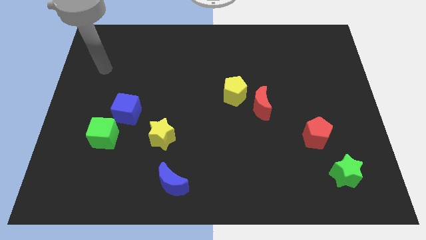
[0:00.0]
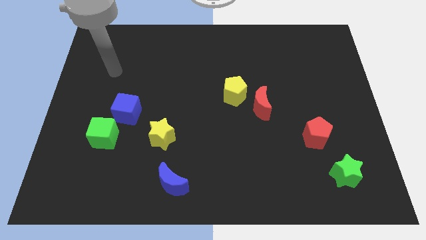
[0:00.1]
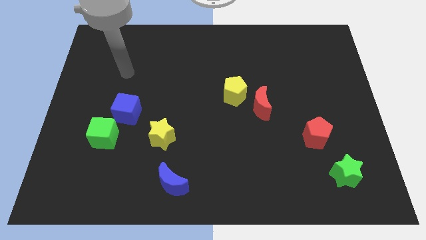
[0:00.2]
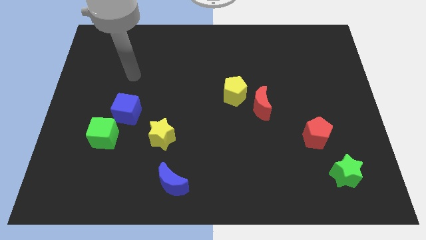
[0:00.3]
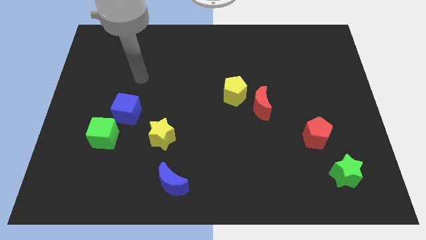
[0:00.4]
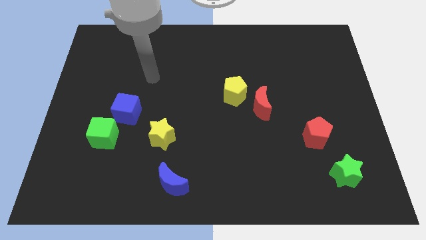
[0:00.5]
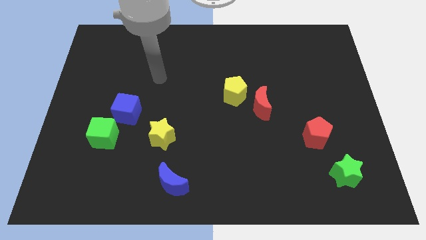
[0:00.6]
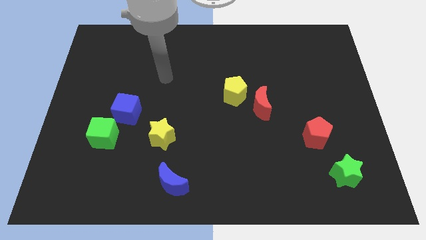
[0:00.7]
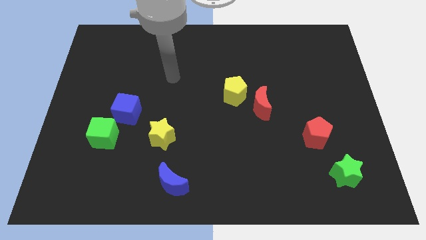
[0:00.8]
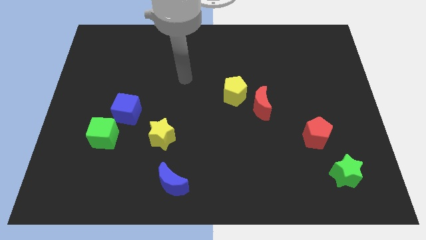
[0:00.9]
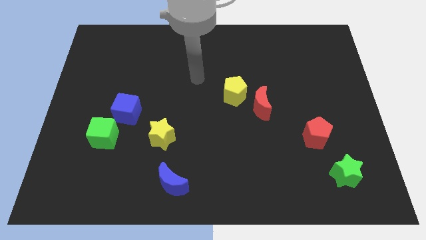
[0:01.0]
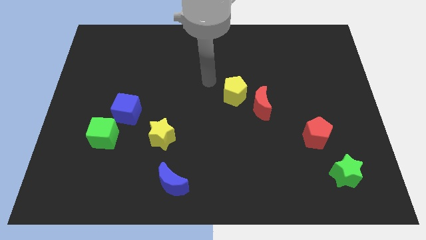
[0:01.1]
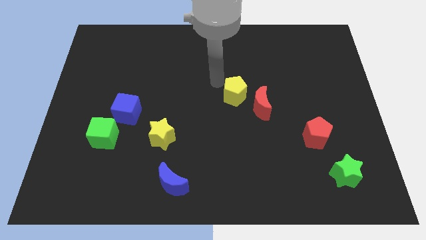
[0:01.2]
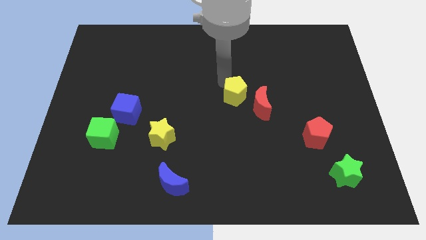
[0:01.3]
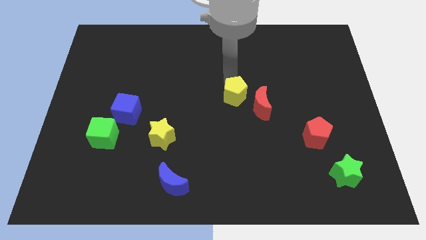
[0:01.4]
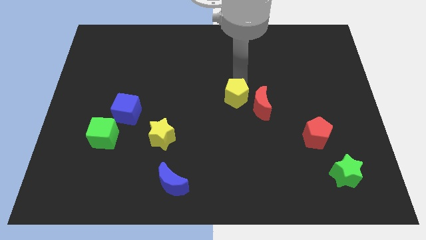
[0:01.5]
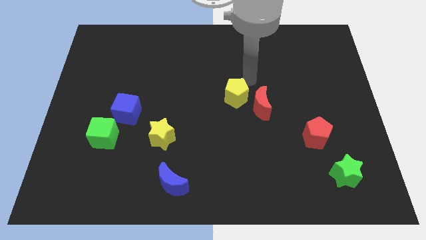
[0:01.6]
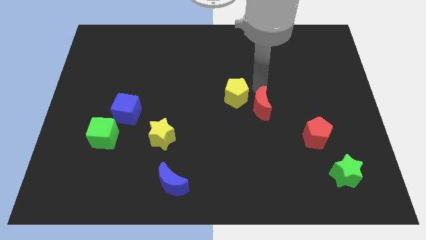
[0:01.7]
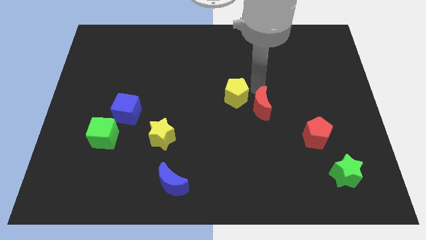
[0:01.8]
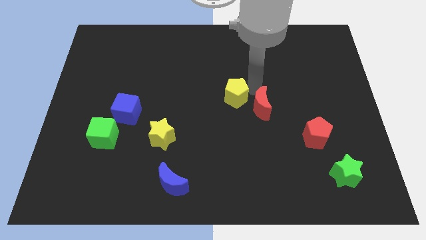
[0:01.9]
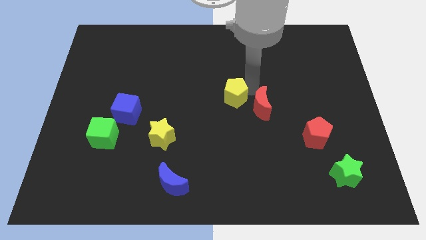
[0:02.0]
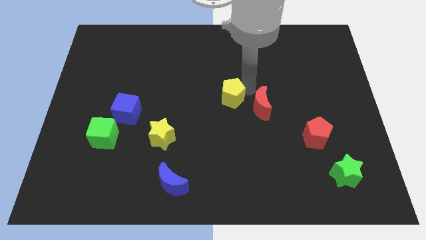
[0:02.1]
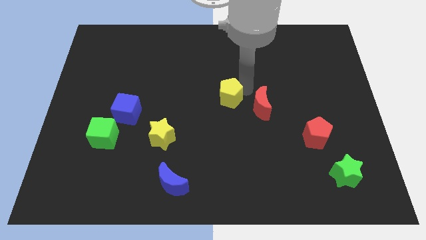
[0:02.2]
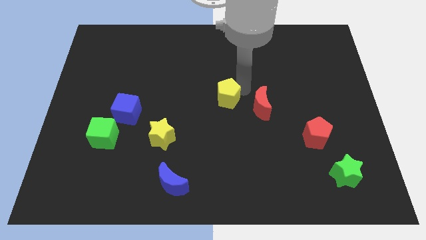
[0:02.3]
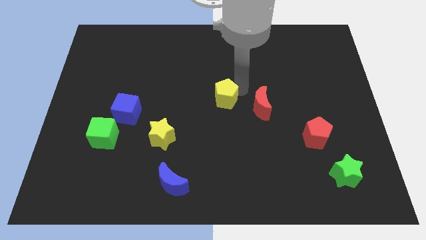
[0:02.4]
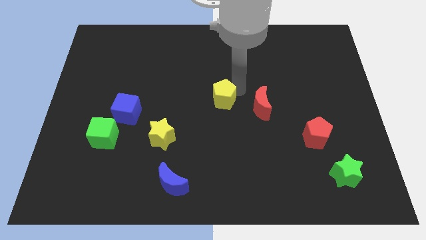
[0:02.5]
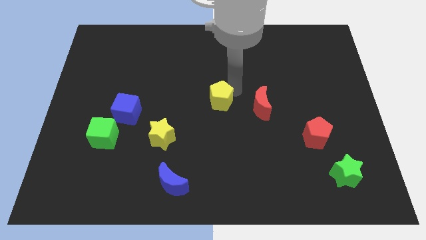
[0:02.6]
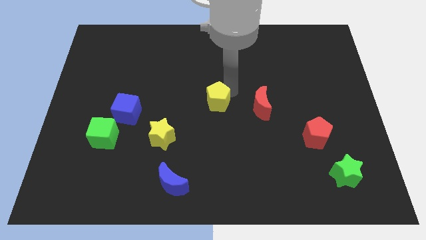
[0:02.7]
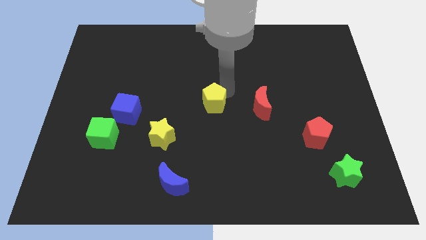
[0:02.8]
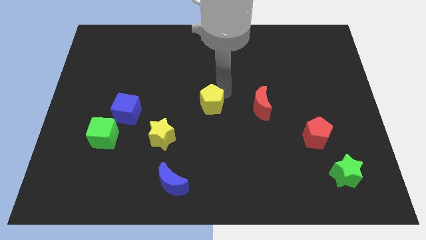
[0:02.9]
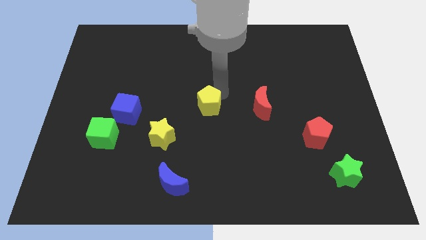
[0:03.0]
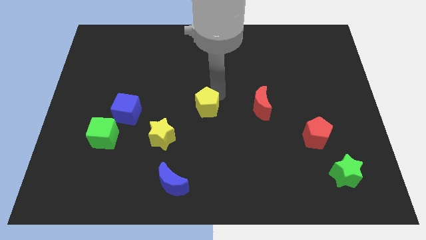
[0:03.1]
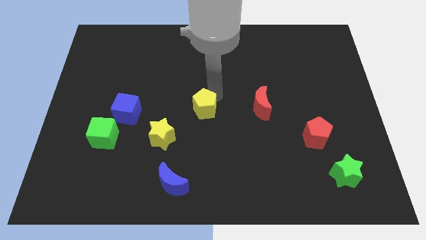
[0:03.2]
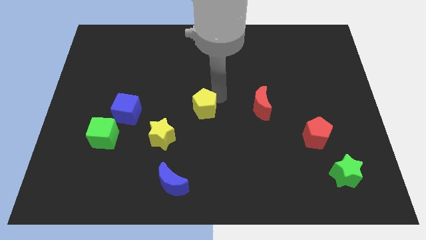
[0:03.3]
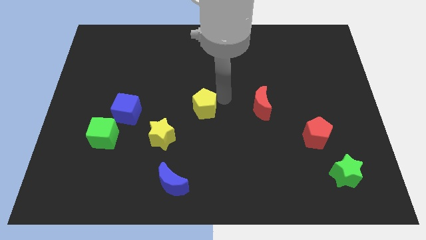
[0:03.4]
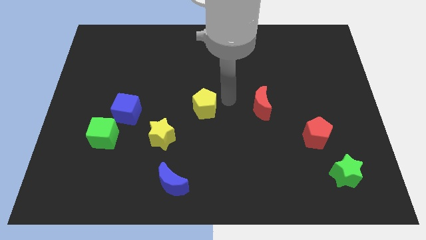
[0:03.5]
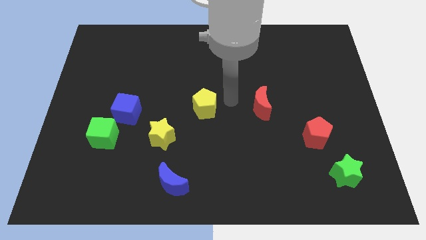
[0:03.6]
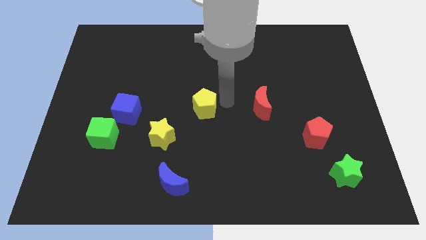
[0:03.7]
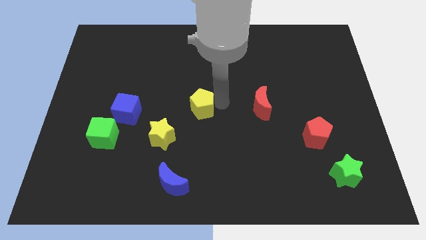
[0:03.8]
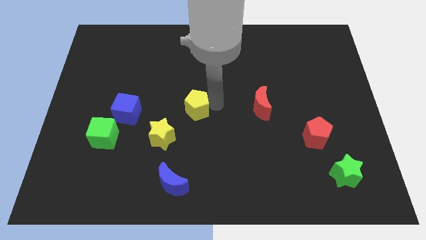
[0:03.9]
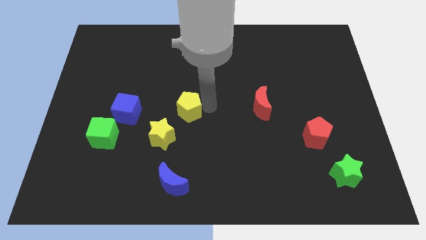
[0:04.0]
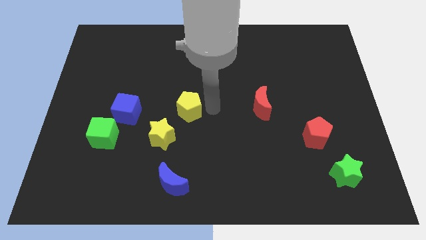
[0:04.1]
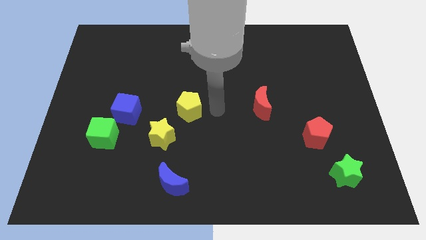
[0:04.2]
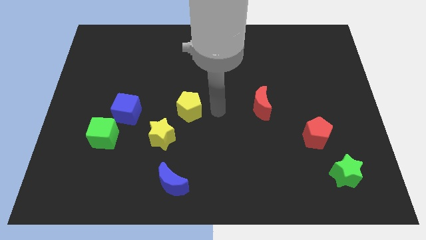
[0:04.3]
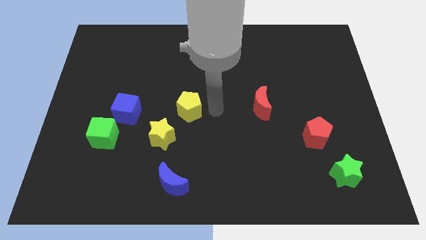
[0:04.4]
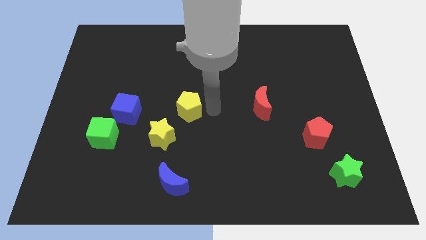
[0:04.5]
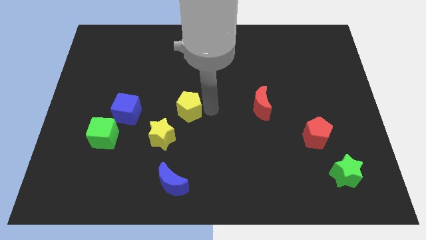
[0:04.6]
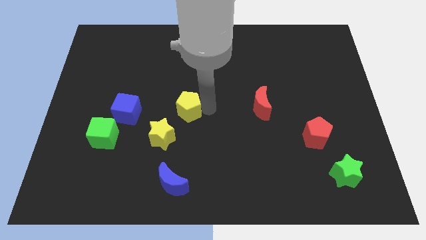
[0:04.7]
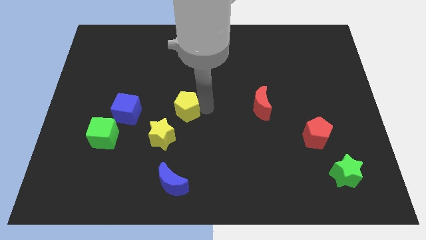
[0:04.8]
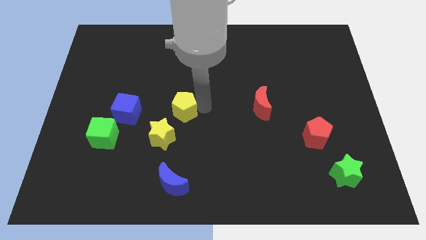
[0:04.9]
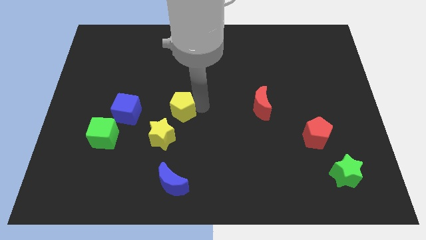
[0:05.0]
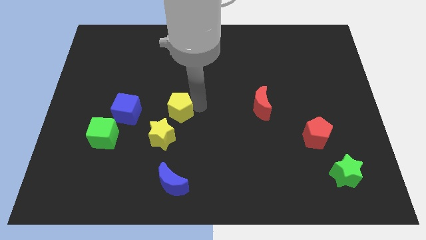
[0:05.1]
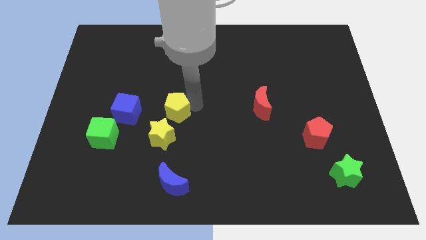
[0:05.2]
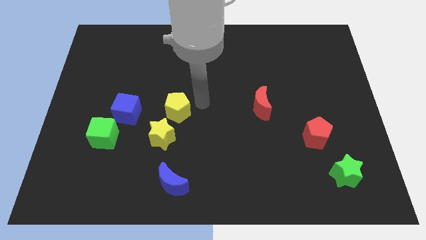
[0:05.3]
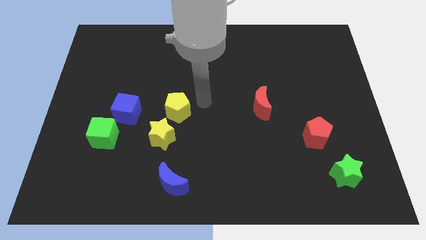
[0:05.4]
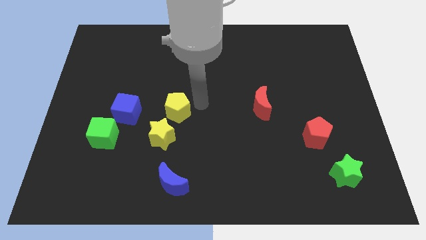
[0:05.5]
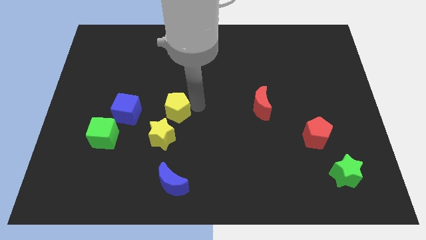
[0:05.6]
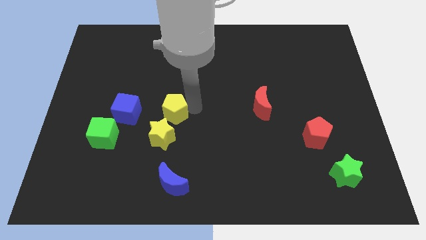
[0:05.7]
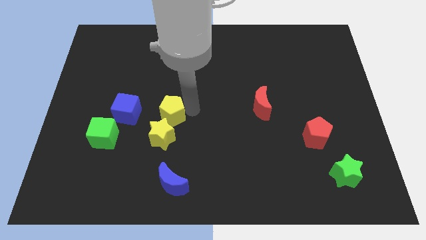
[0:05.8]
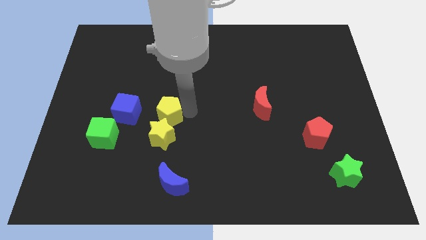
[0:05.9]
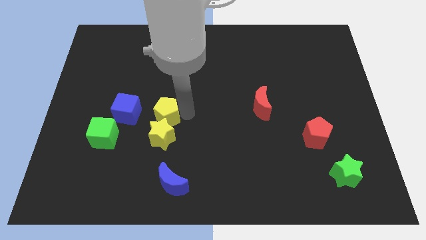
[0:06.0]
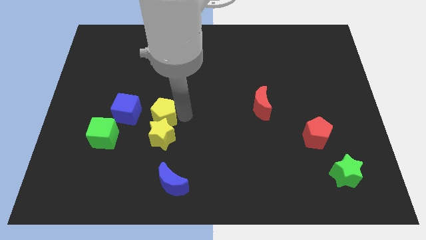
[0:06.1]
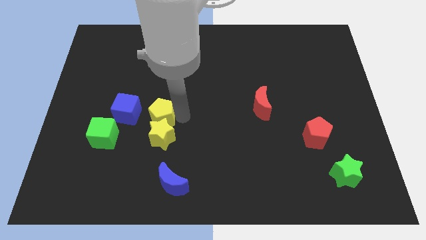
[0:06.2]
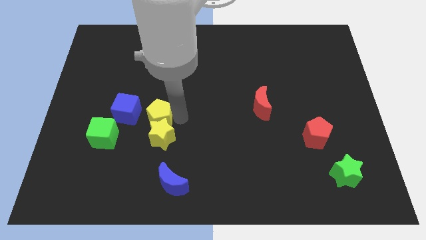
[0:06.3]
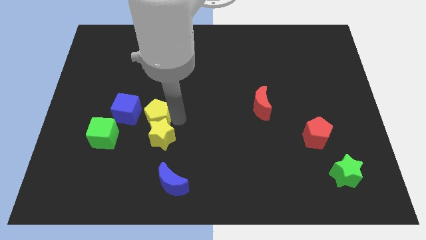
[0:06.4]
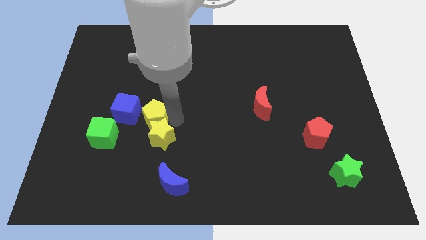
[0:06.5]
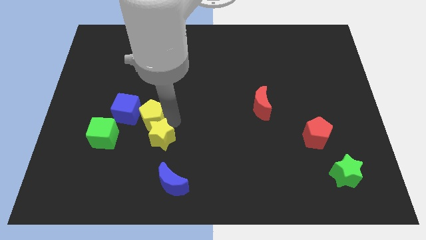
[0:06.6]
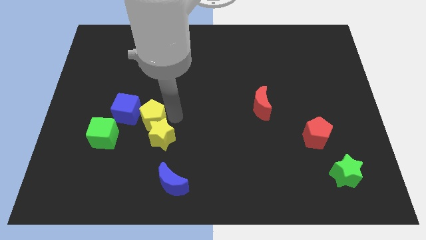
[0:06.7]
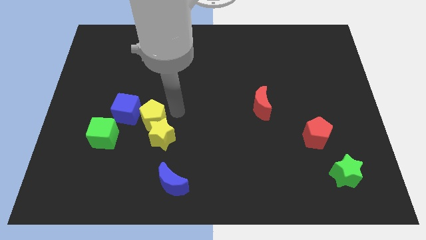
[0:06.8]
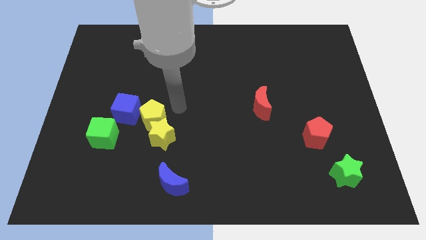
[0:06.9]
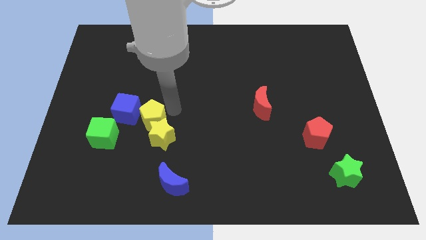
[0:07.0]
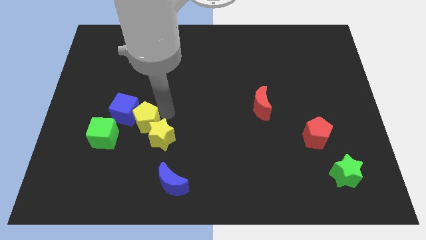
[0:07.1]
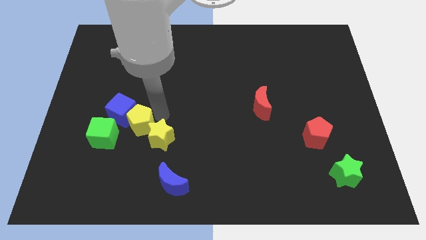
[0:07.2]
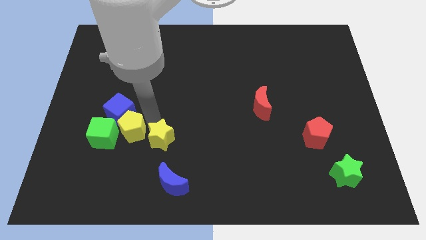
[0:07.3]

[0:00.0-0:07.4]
put the yellow pentagon to the green cube
